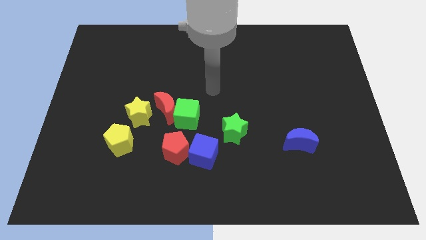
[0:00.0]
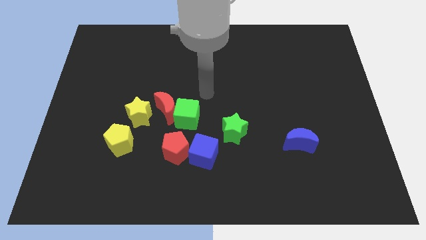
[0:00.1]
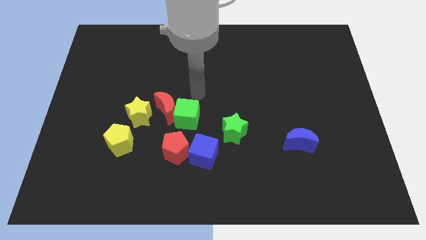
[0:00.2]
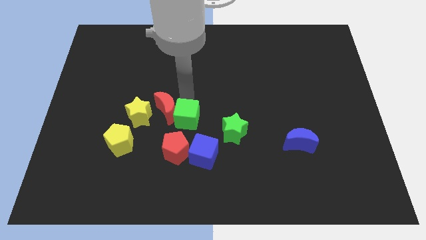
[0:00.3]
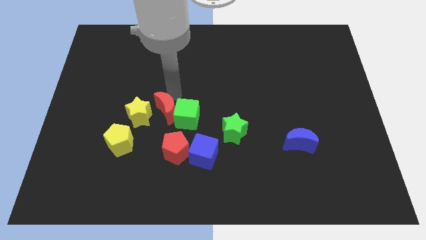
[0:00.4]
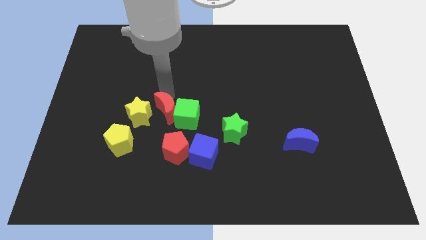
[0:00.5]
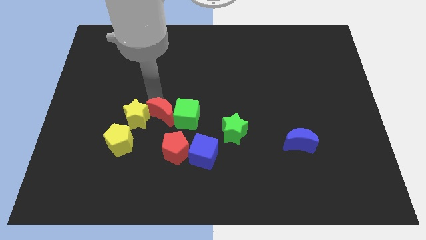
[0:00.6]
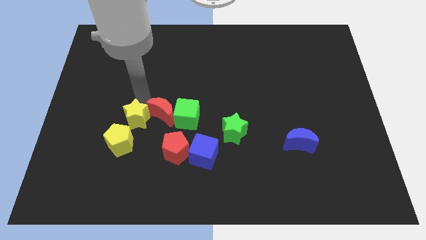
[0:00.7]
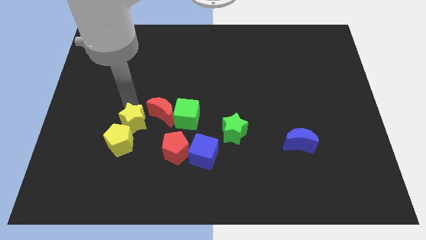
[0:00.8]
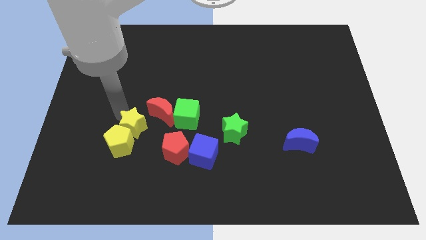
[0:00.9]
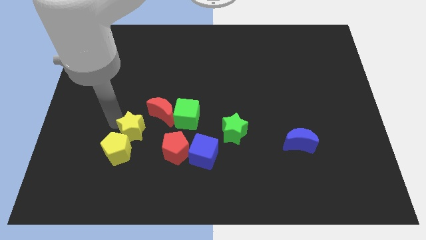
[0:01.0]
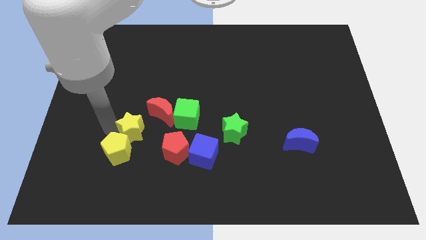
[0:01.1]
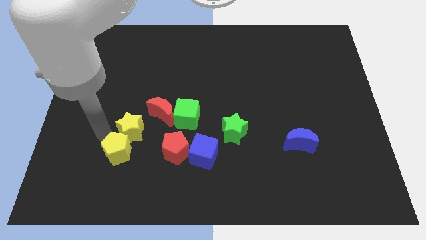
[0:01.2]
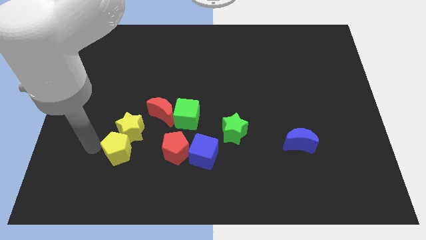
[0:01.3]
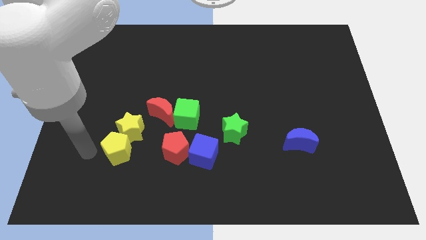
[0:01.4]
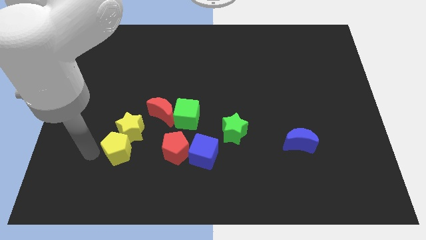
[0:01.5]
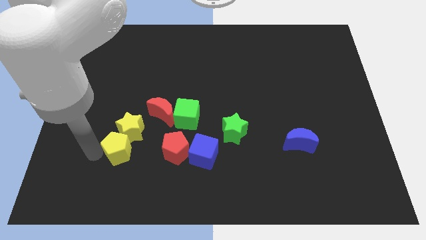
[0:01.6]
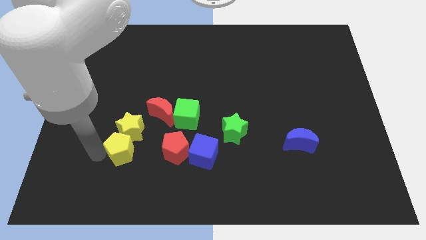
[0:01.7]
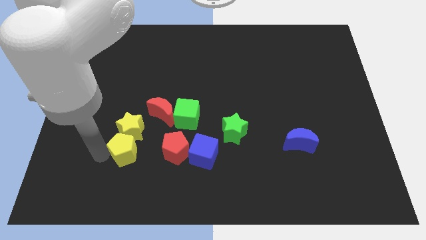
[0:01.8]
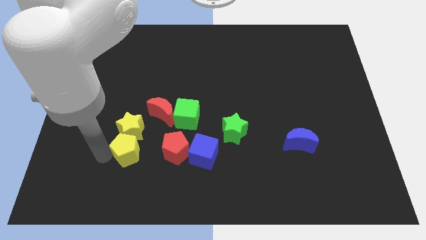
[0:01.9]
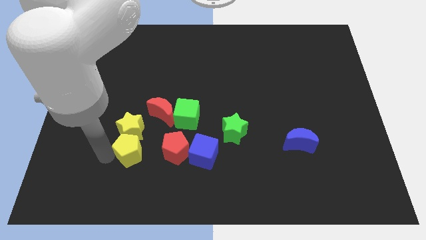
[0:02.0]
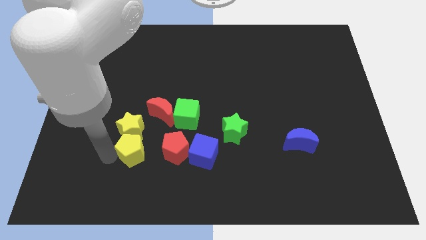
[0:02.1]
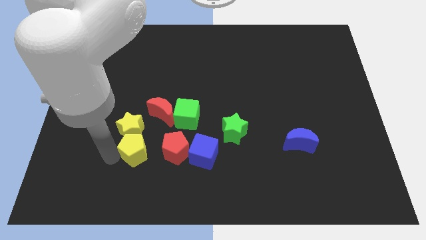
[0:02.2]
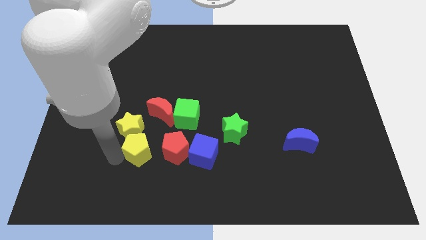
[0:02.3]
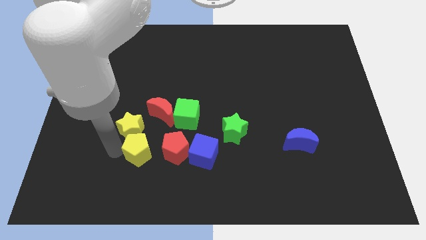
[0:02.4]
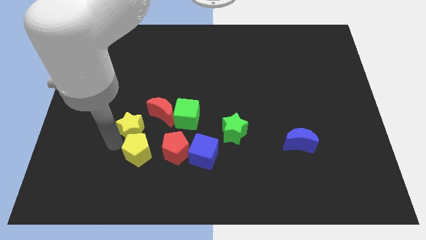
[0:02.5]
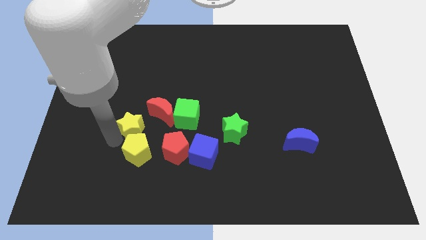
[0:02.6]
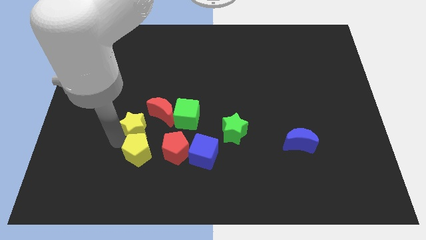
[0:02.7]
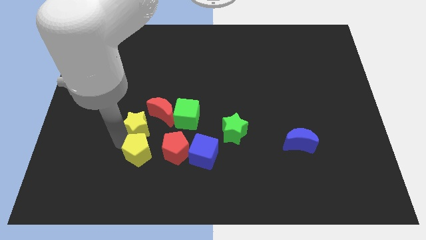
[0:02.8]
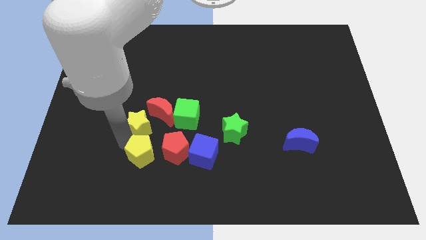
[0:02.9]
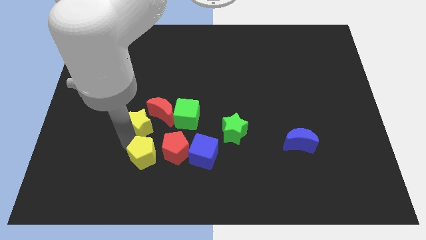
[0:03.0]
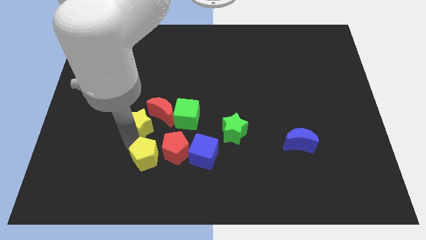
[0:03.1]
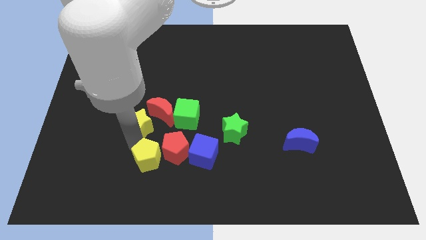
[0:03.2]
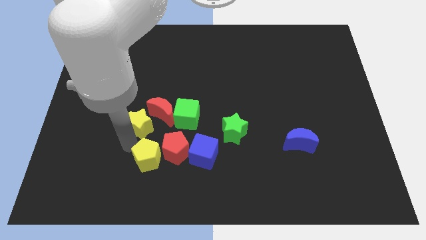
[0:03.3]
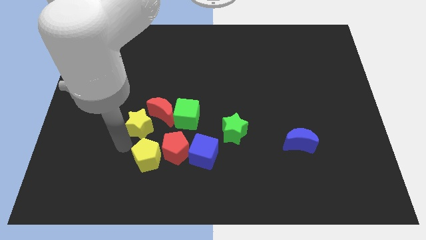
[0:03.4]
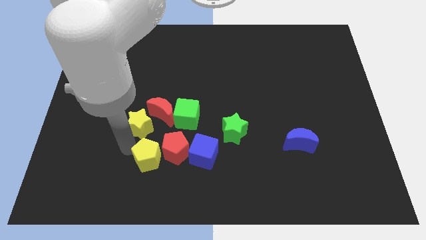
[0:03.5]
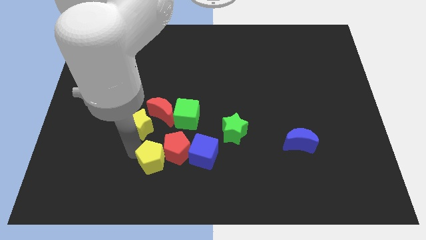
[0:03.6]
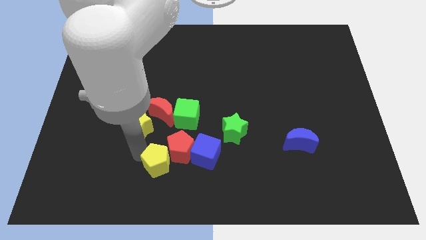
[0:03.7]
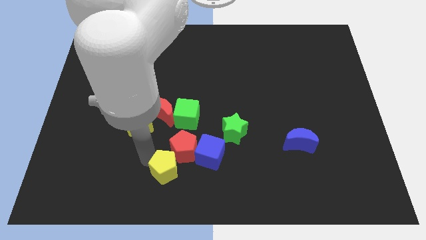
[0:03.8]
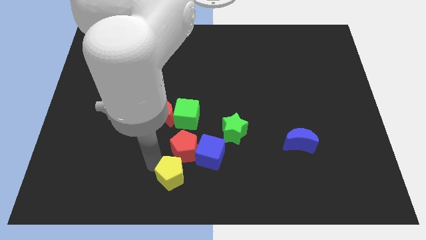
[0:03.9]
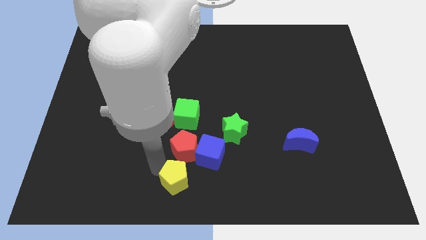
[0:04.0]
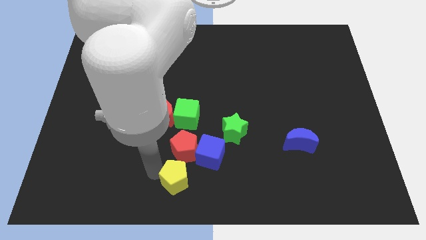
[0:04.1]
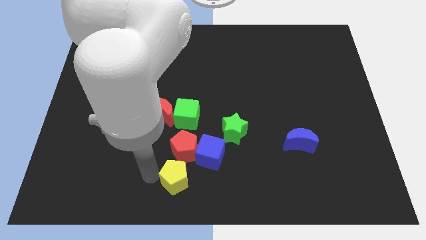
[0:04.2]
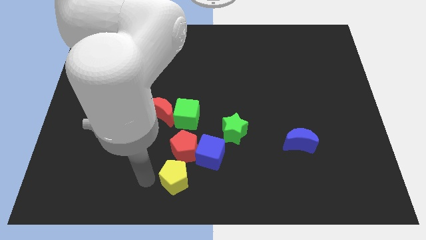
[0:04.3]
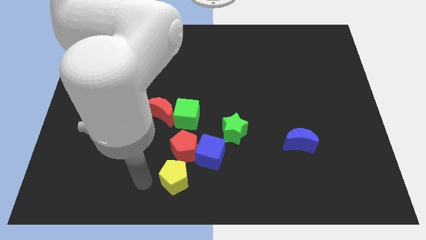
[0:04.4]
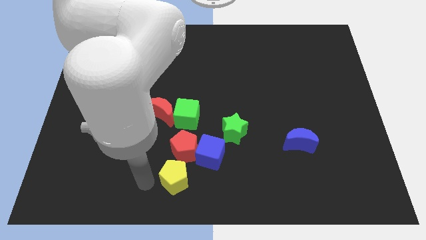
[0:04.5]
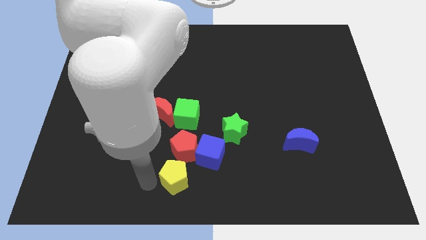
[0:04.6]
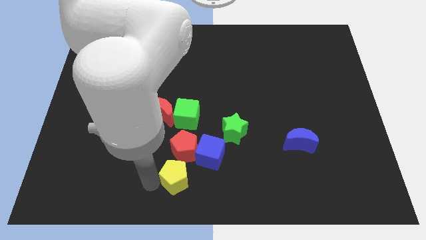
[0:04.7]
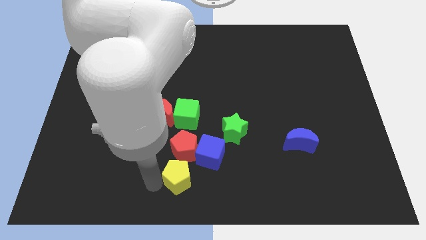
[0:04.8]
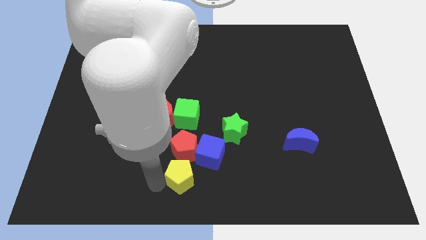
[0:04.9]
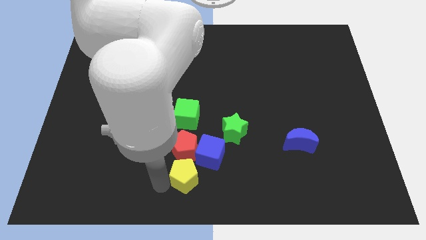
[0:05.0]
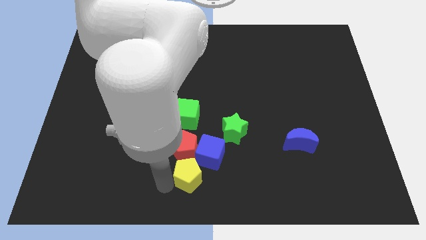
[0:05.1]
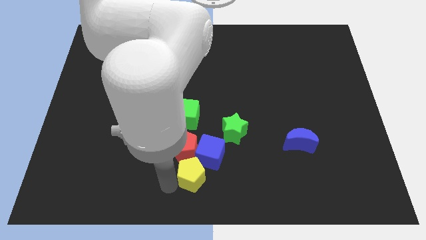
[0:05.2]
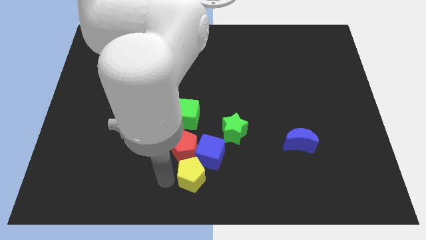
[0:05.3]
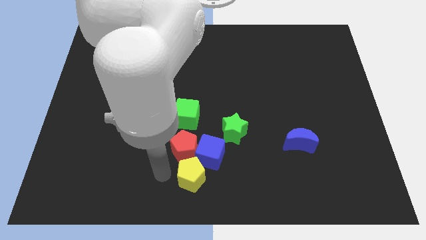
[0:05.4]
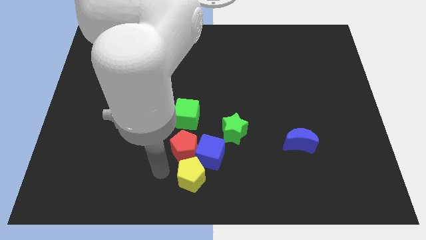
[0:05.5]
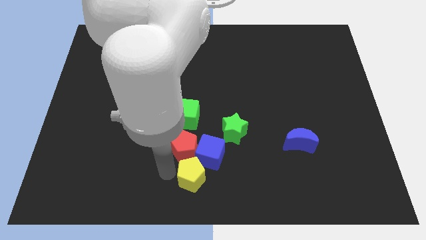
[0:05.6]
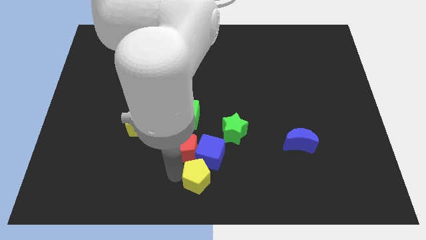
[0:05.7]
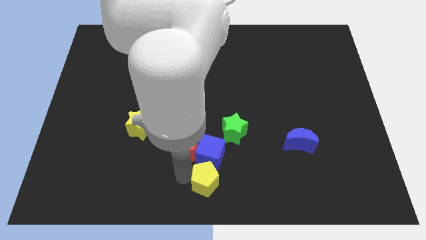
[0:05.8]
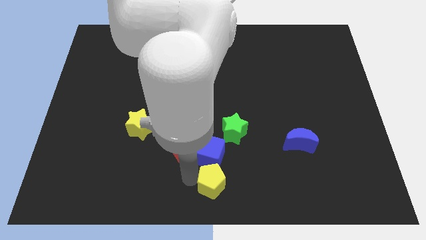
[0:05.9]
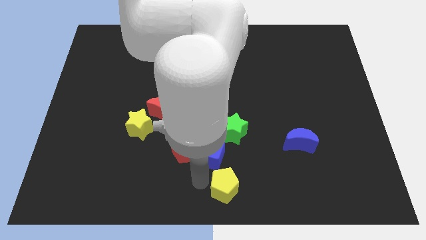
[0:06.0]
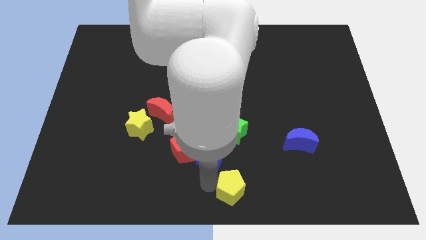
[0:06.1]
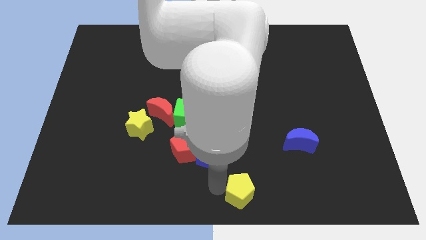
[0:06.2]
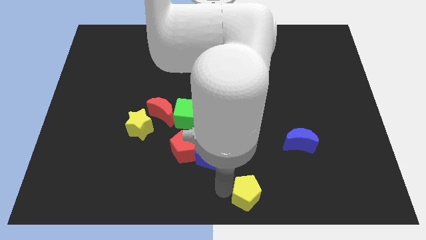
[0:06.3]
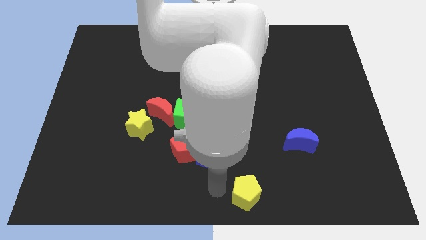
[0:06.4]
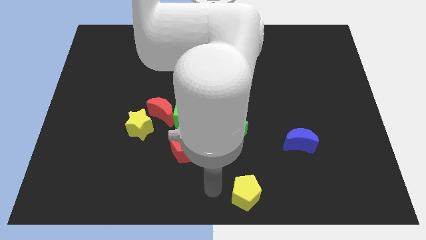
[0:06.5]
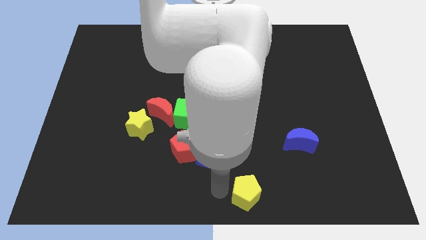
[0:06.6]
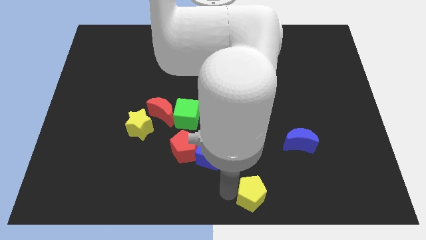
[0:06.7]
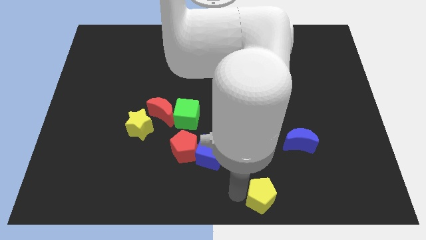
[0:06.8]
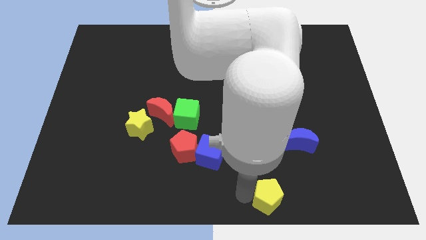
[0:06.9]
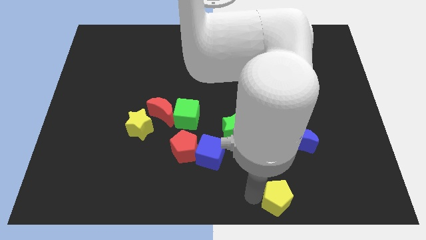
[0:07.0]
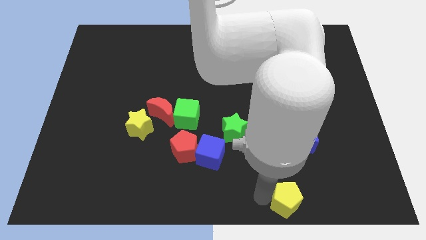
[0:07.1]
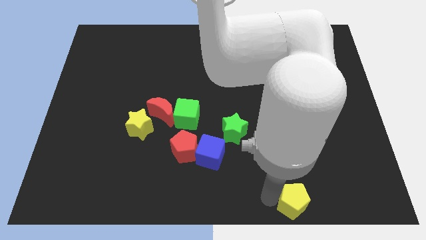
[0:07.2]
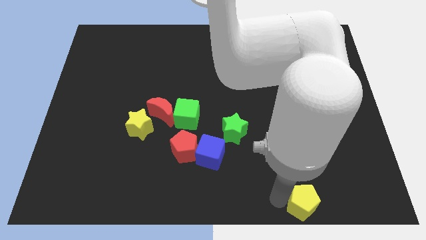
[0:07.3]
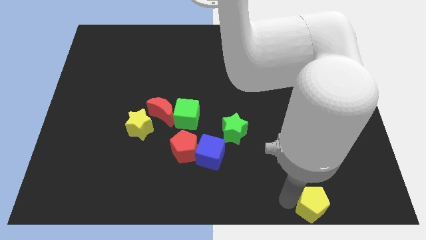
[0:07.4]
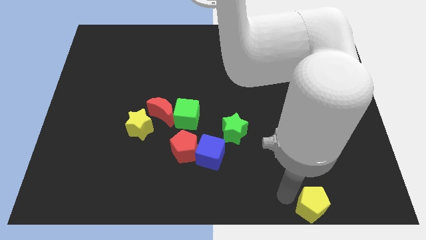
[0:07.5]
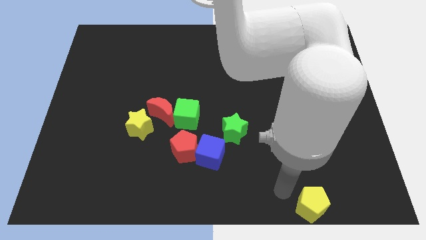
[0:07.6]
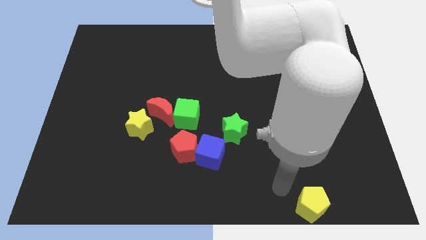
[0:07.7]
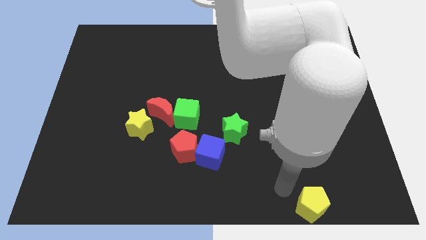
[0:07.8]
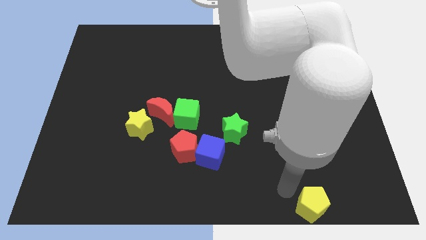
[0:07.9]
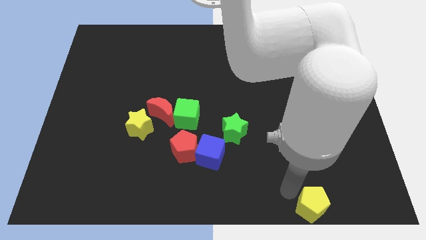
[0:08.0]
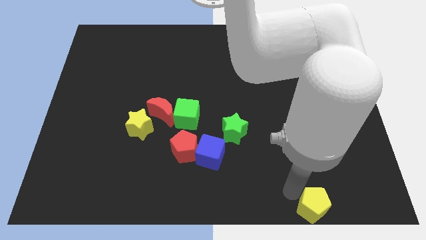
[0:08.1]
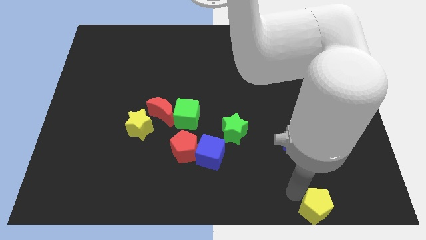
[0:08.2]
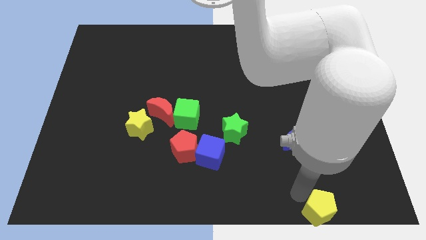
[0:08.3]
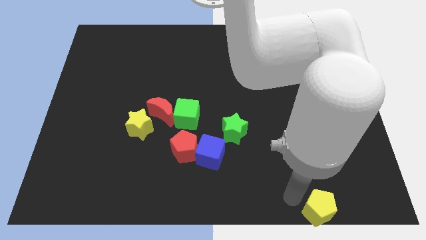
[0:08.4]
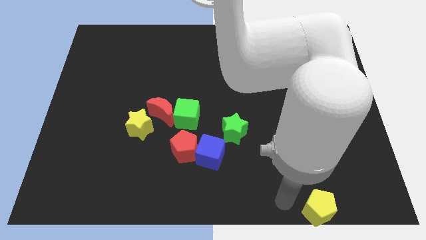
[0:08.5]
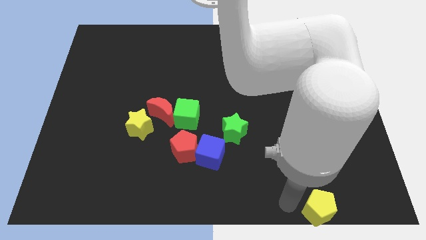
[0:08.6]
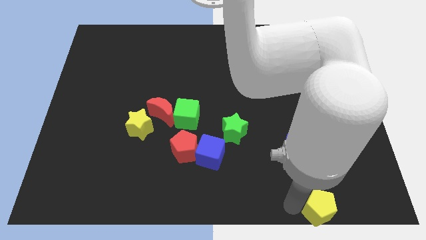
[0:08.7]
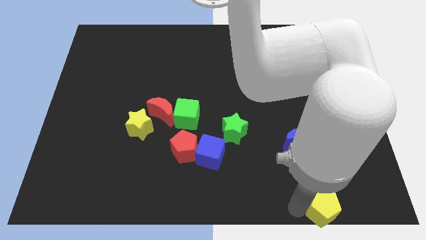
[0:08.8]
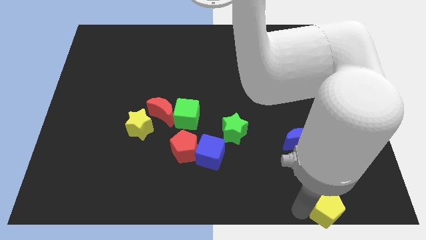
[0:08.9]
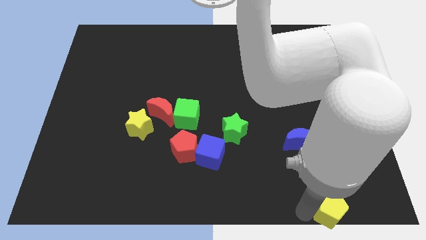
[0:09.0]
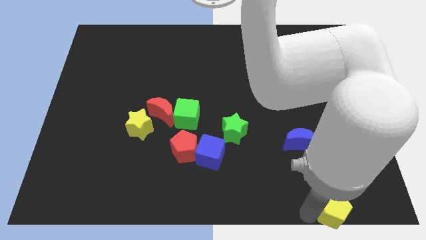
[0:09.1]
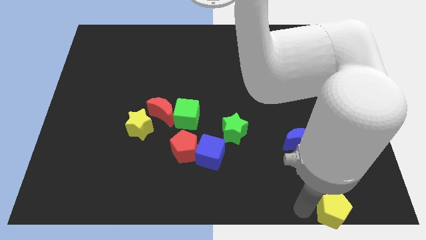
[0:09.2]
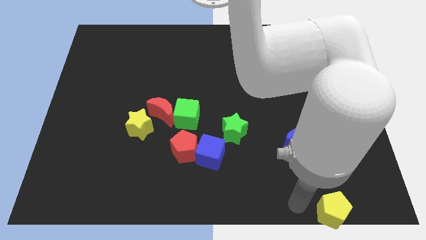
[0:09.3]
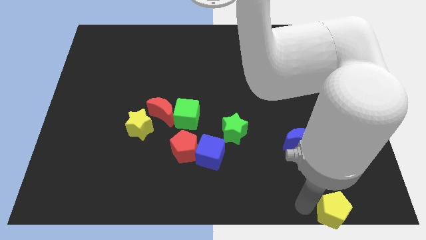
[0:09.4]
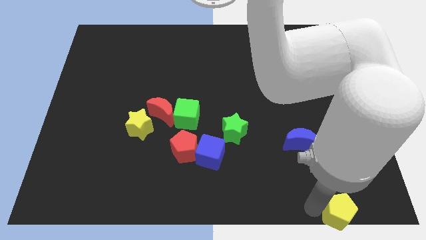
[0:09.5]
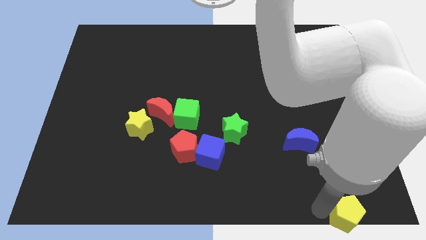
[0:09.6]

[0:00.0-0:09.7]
slide the yellow pentagon to the lower right corner
